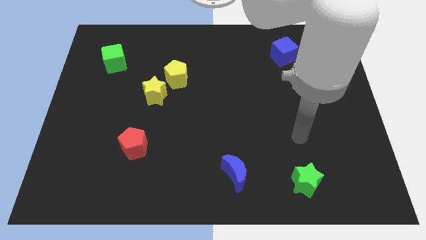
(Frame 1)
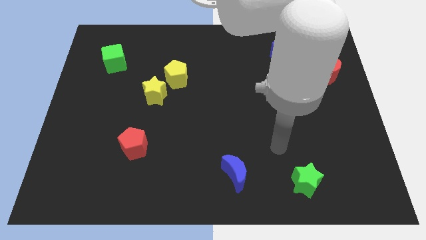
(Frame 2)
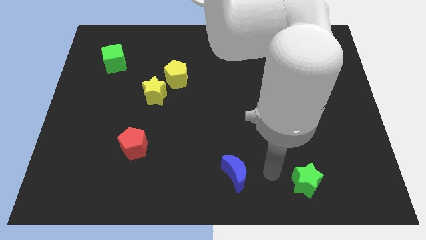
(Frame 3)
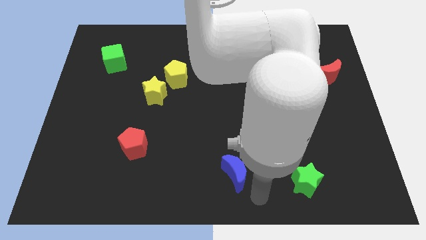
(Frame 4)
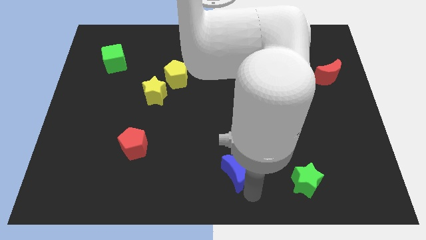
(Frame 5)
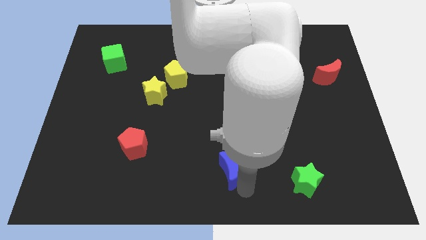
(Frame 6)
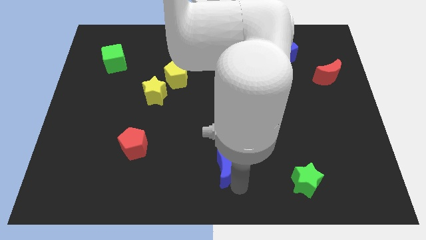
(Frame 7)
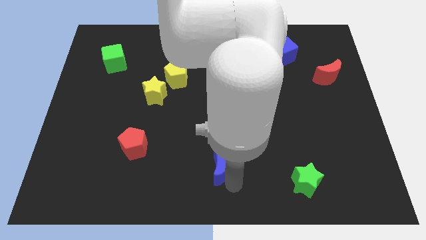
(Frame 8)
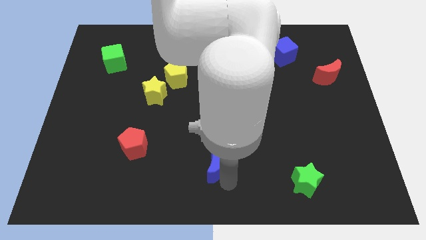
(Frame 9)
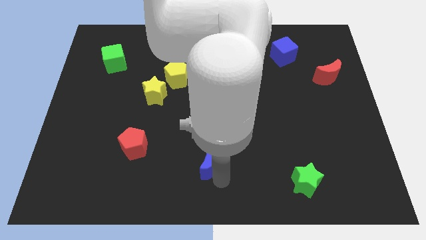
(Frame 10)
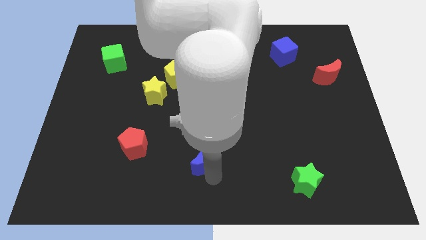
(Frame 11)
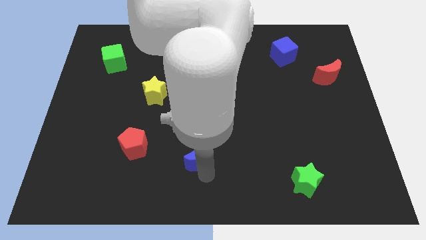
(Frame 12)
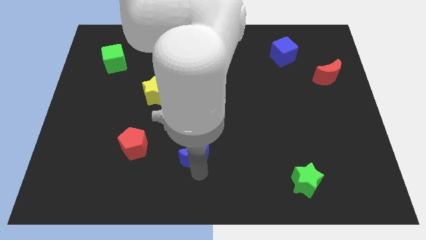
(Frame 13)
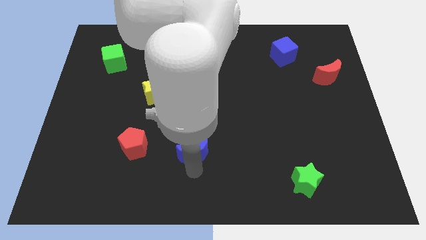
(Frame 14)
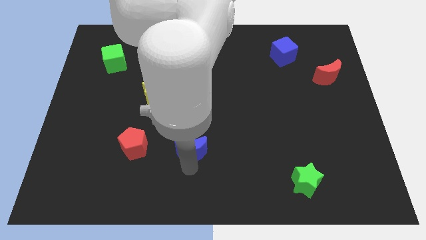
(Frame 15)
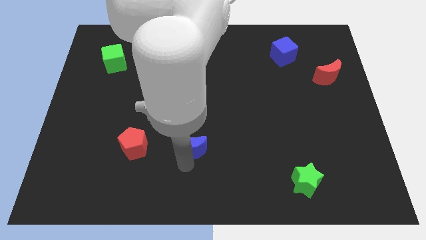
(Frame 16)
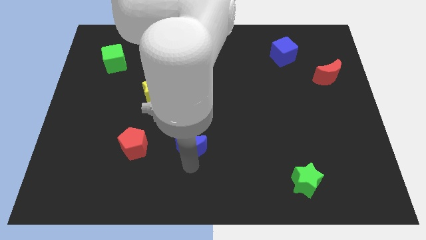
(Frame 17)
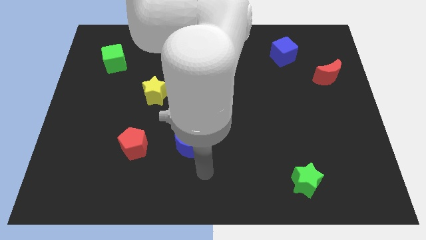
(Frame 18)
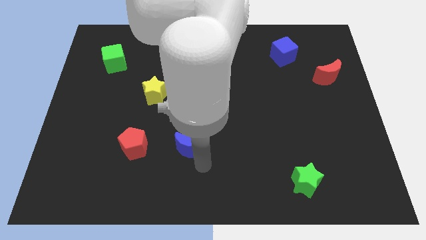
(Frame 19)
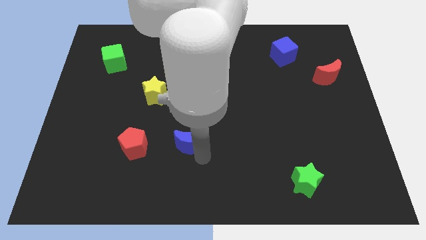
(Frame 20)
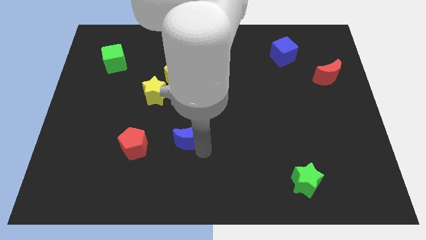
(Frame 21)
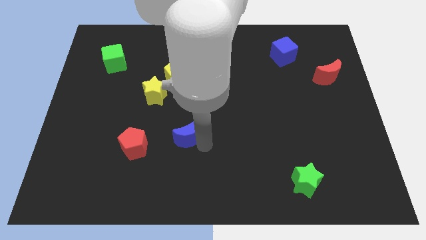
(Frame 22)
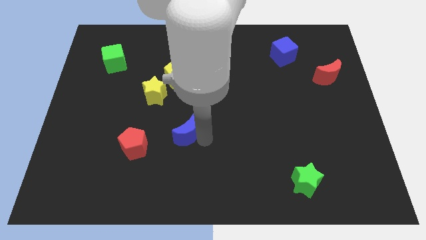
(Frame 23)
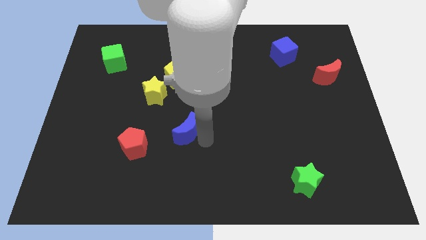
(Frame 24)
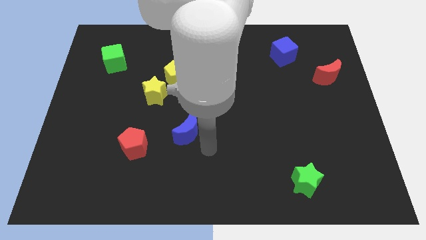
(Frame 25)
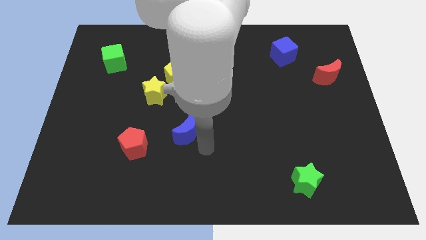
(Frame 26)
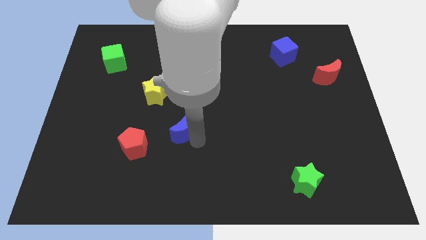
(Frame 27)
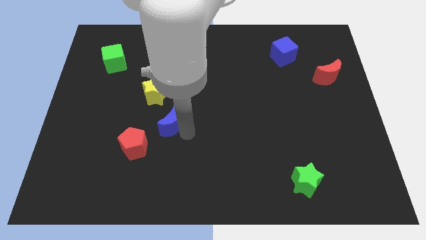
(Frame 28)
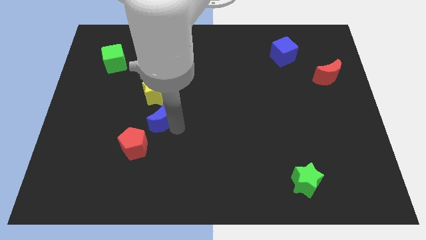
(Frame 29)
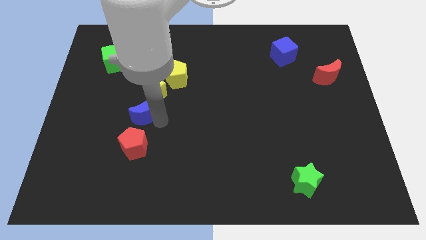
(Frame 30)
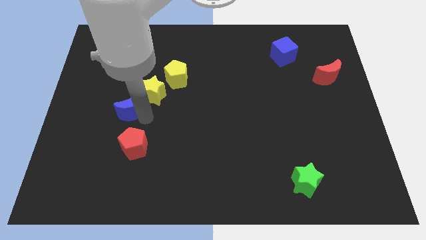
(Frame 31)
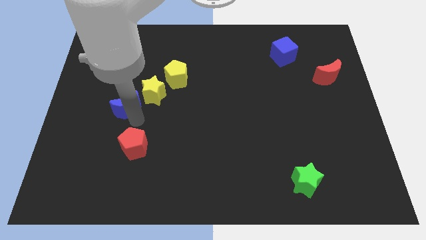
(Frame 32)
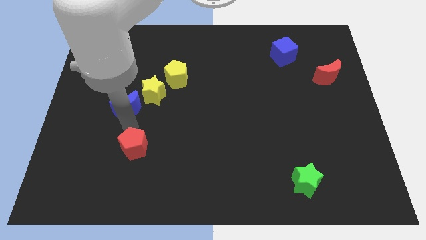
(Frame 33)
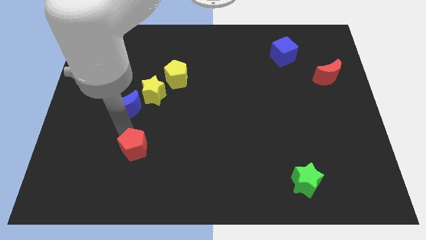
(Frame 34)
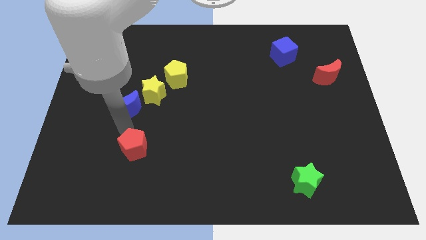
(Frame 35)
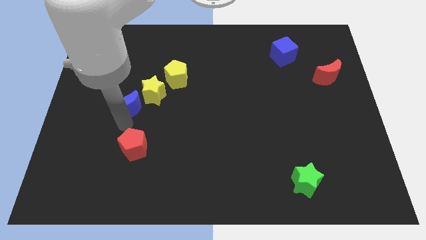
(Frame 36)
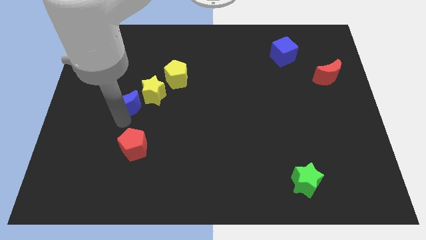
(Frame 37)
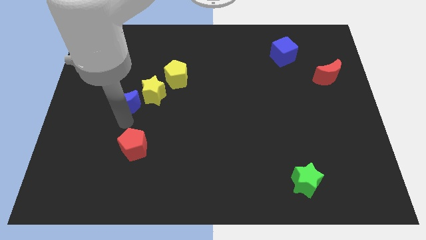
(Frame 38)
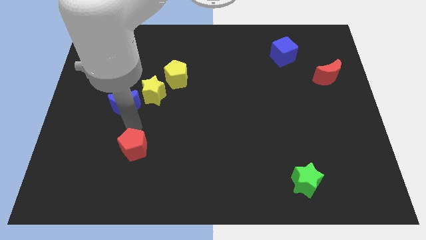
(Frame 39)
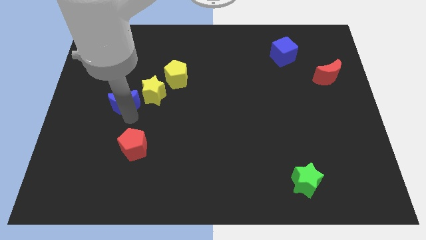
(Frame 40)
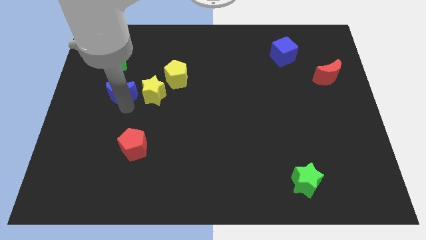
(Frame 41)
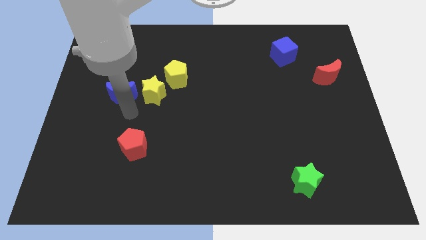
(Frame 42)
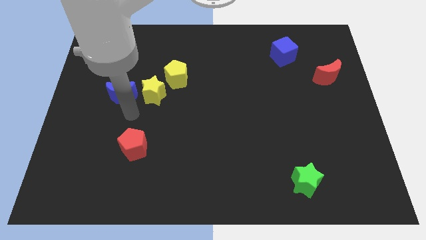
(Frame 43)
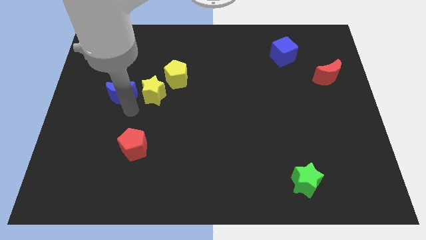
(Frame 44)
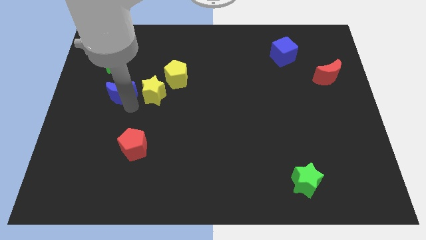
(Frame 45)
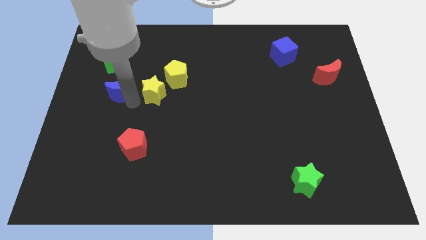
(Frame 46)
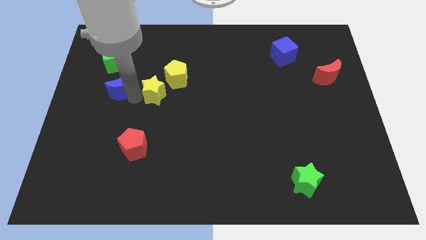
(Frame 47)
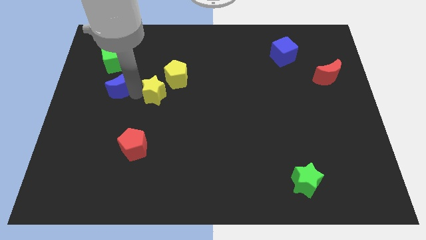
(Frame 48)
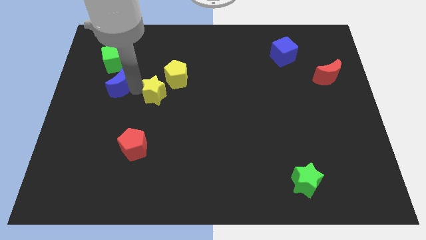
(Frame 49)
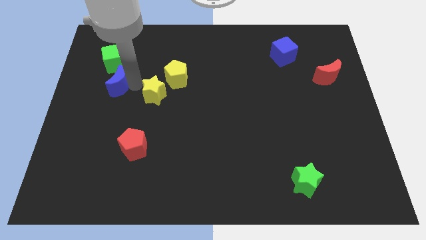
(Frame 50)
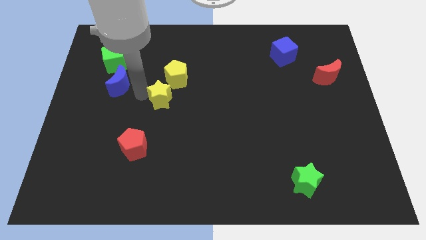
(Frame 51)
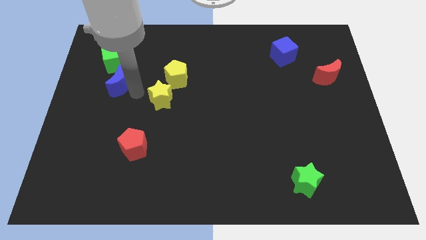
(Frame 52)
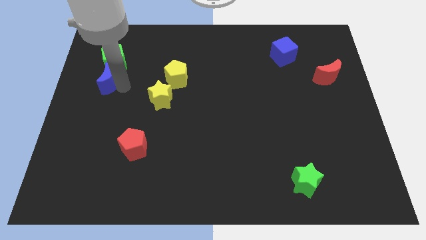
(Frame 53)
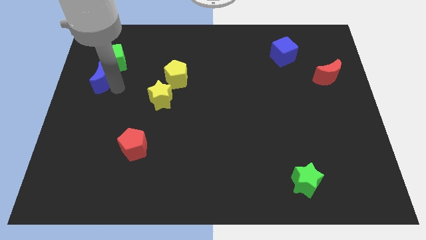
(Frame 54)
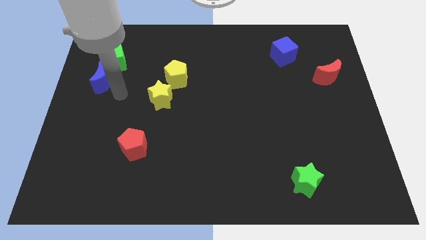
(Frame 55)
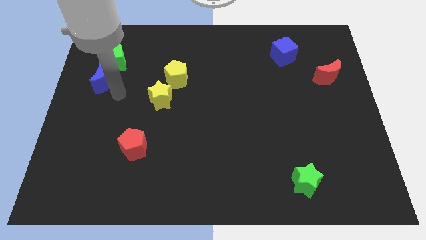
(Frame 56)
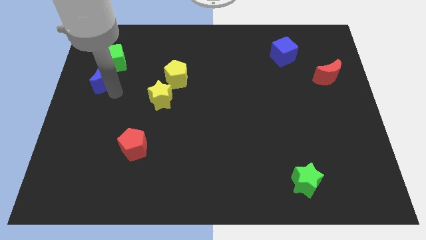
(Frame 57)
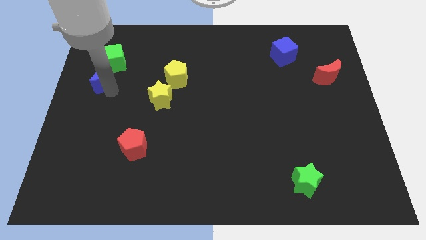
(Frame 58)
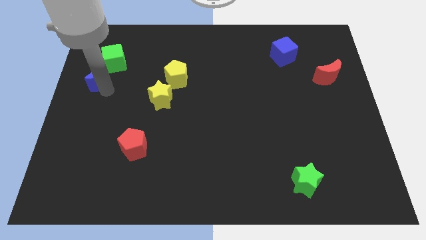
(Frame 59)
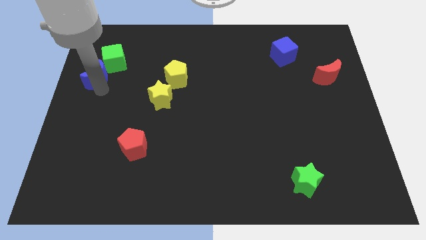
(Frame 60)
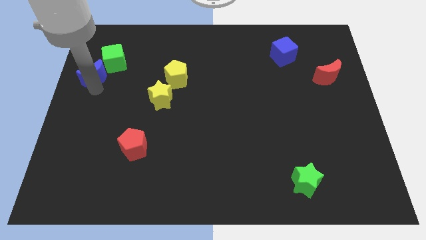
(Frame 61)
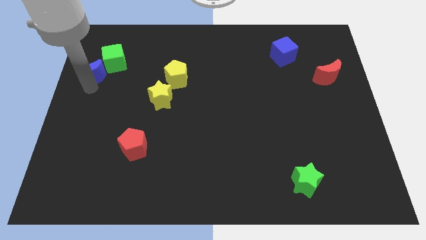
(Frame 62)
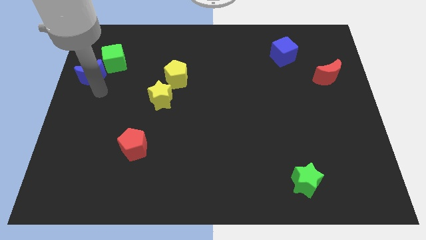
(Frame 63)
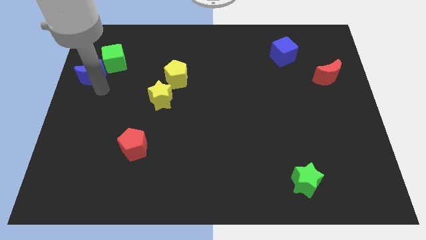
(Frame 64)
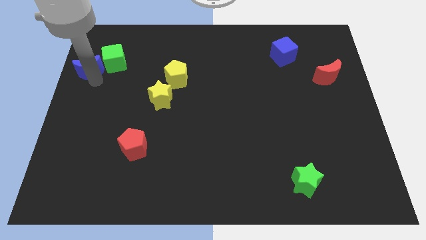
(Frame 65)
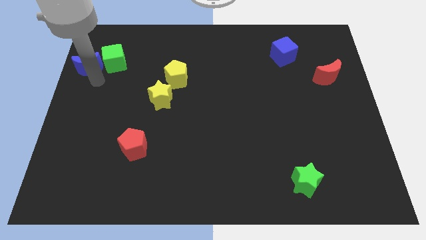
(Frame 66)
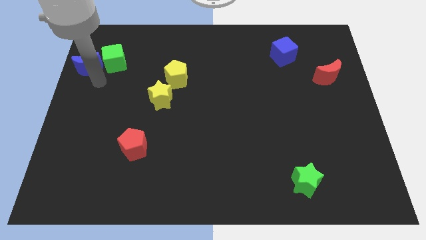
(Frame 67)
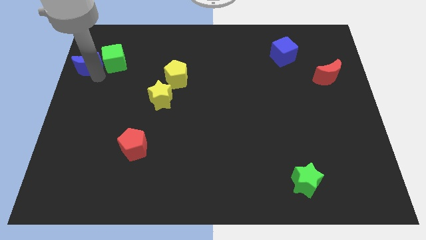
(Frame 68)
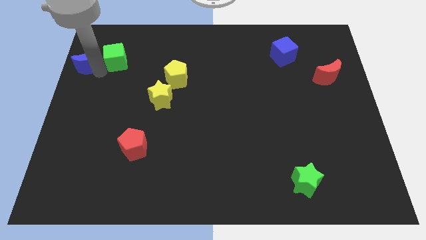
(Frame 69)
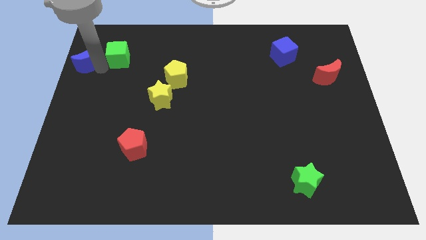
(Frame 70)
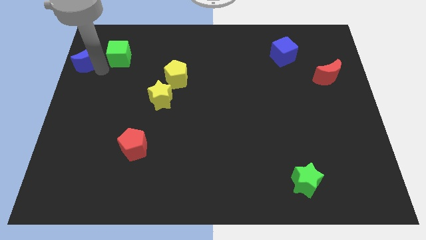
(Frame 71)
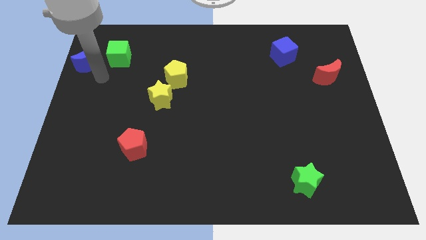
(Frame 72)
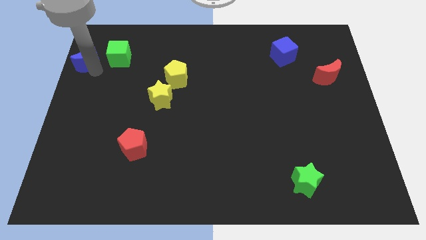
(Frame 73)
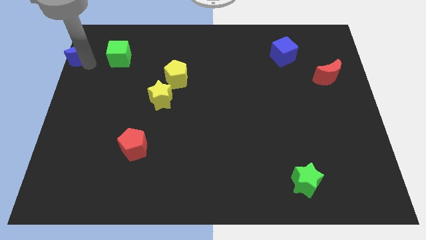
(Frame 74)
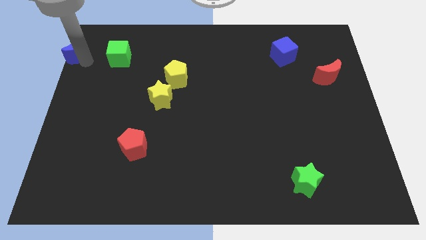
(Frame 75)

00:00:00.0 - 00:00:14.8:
push the blue moon to the upper left corner

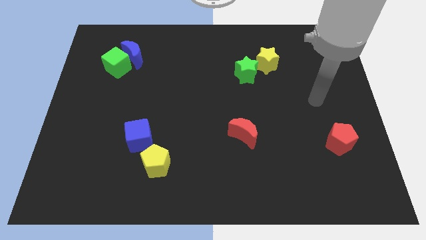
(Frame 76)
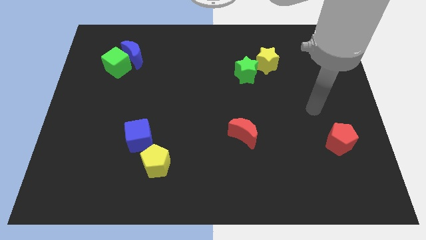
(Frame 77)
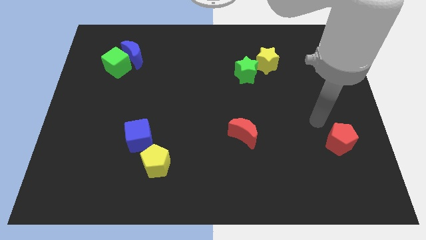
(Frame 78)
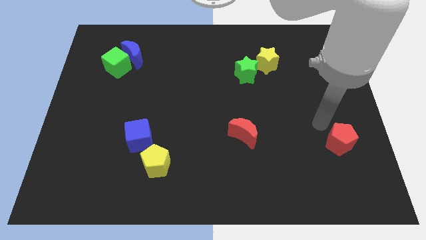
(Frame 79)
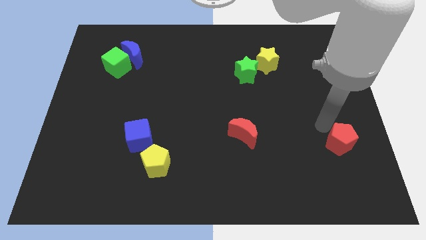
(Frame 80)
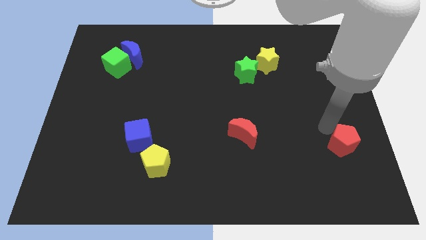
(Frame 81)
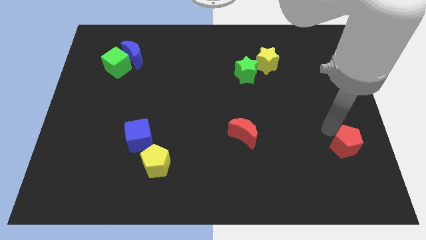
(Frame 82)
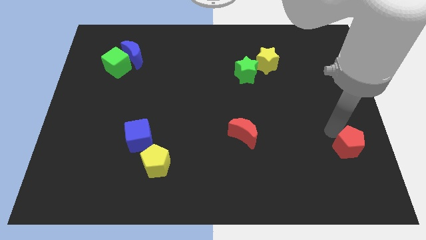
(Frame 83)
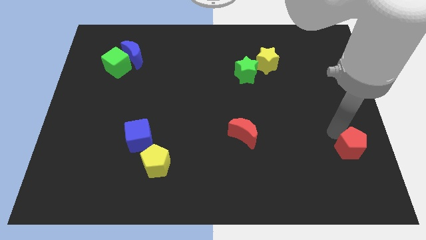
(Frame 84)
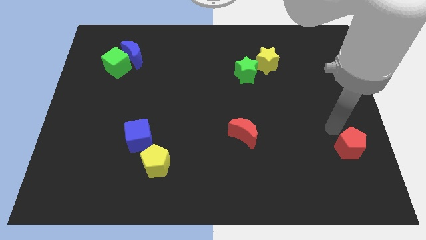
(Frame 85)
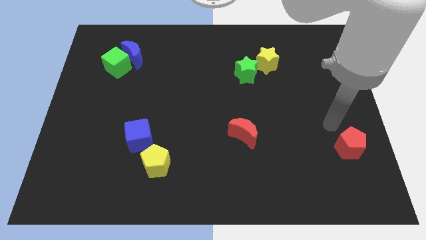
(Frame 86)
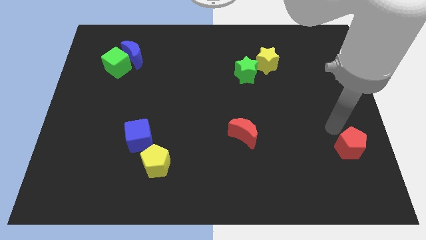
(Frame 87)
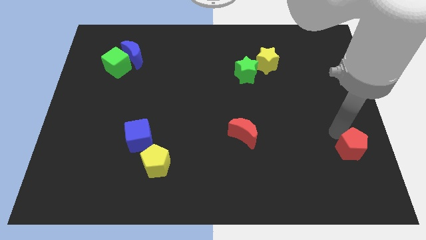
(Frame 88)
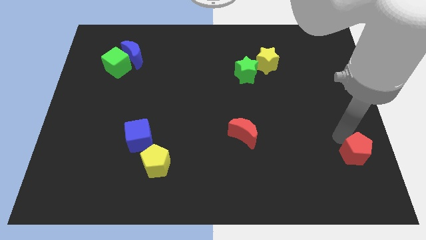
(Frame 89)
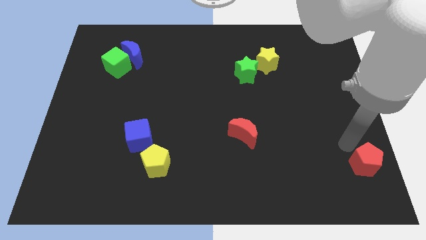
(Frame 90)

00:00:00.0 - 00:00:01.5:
push the red pentagon to the bottom right corner
